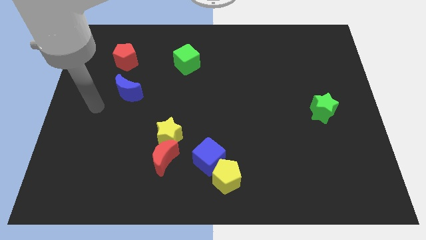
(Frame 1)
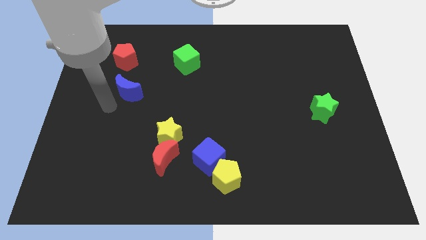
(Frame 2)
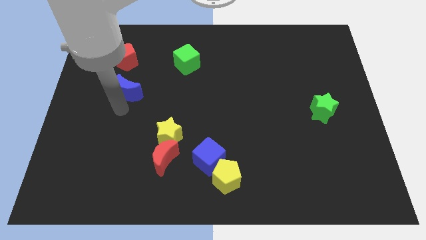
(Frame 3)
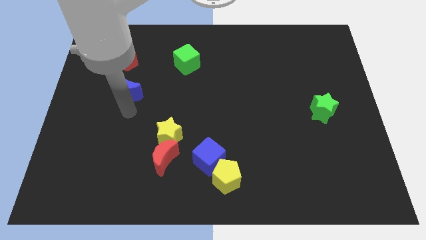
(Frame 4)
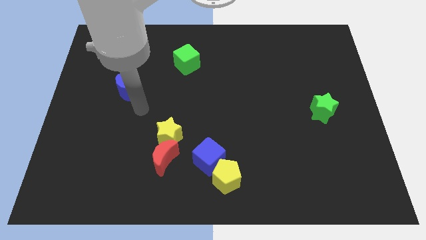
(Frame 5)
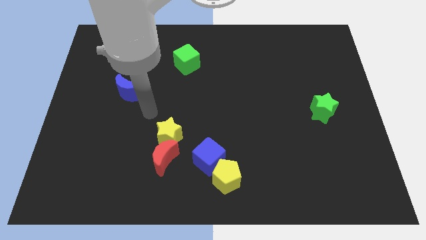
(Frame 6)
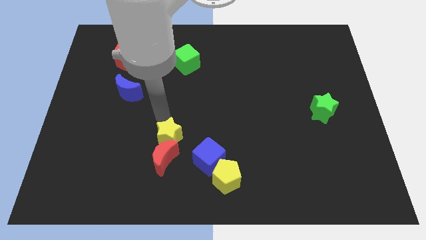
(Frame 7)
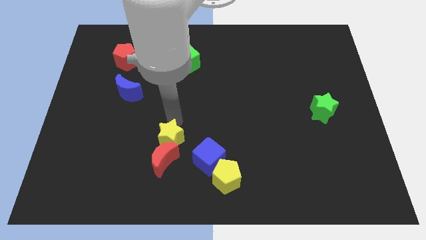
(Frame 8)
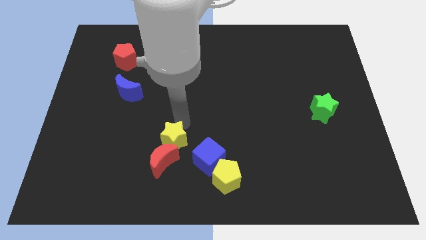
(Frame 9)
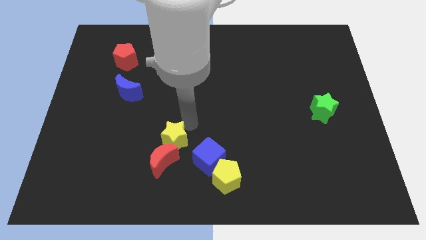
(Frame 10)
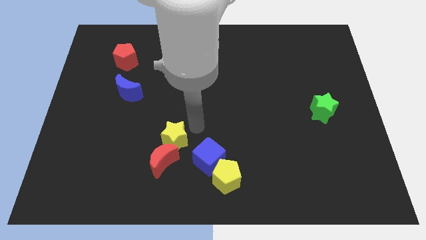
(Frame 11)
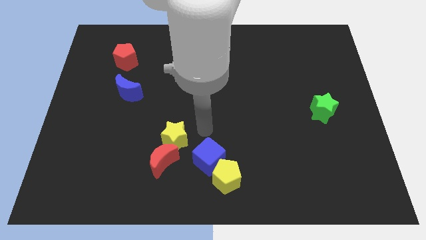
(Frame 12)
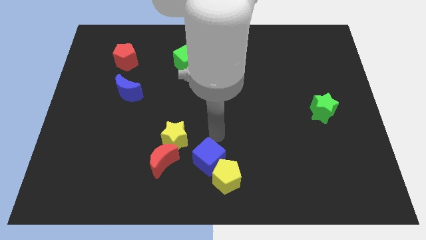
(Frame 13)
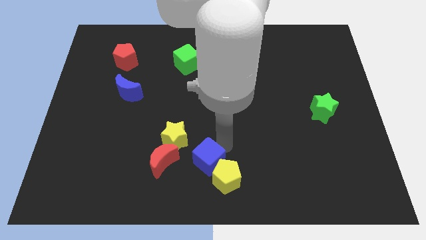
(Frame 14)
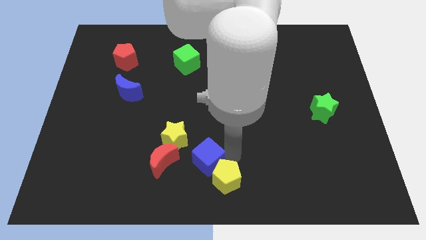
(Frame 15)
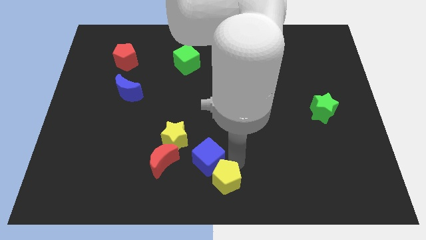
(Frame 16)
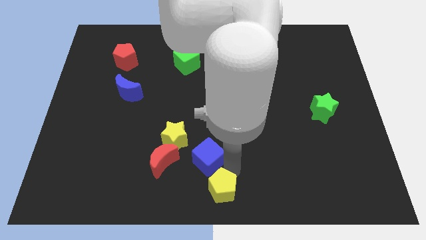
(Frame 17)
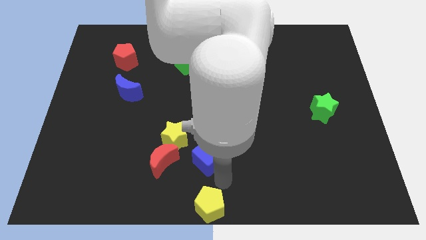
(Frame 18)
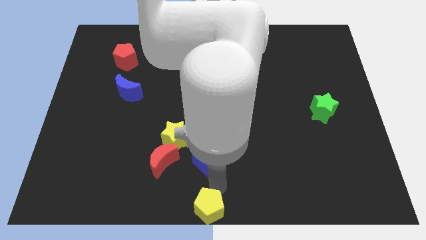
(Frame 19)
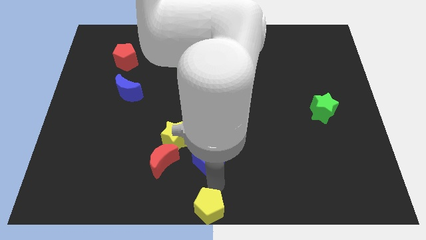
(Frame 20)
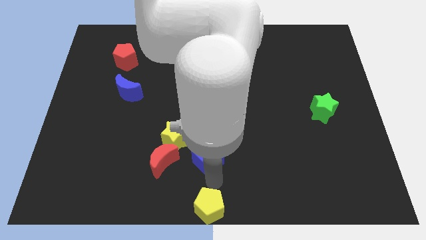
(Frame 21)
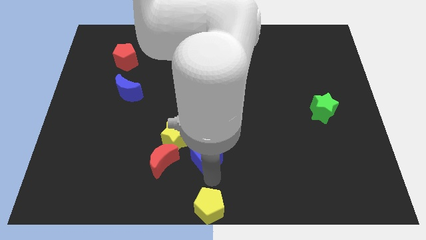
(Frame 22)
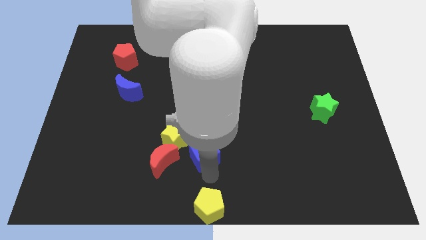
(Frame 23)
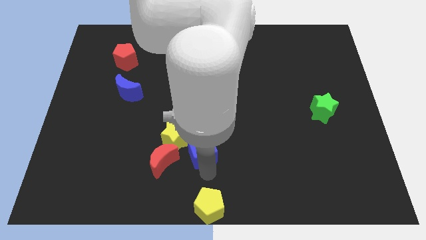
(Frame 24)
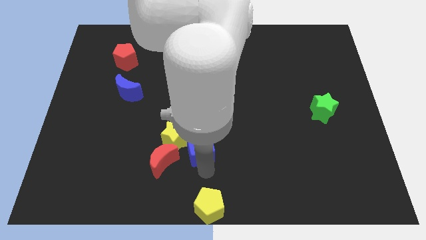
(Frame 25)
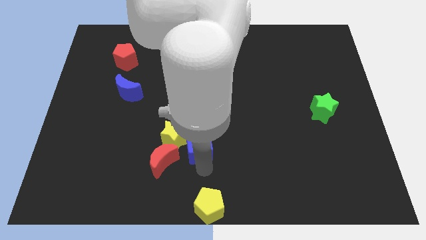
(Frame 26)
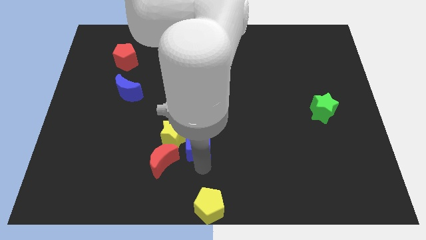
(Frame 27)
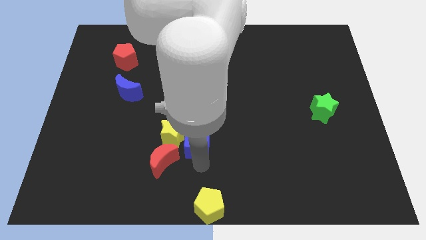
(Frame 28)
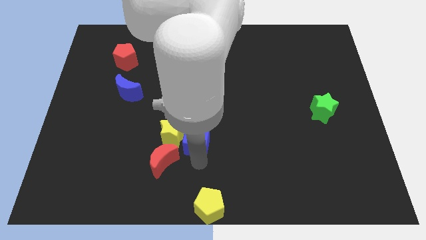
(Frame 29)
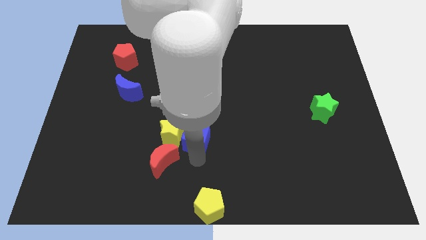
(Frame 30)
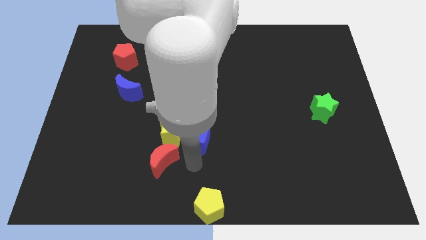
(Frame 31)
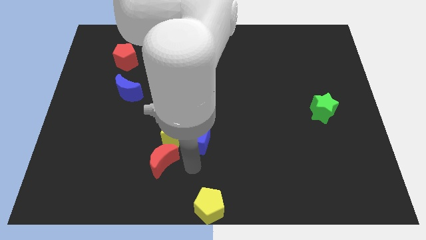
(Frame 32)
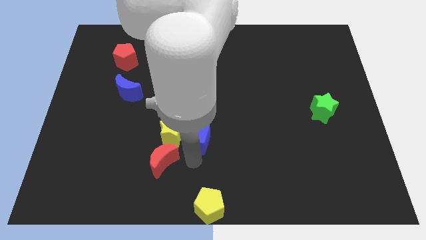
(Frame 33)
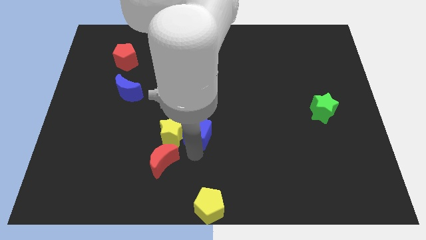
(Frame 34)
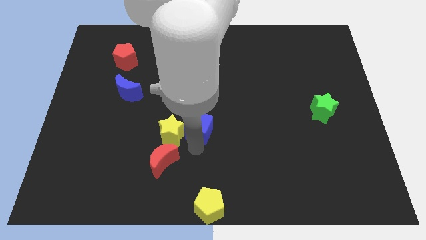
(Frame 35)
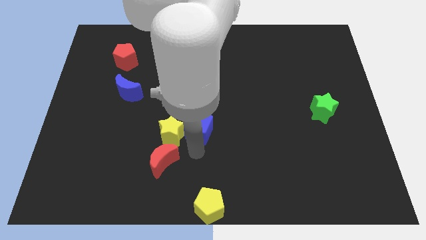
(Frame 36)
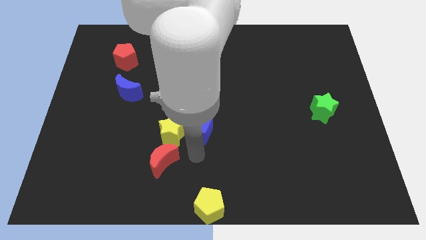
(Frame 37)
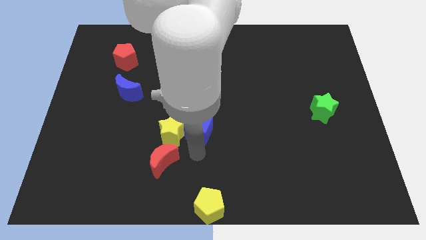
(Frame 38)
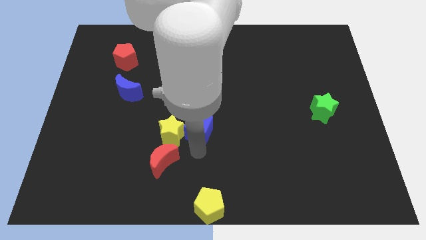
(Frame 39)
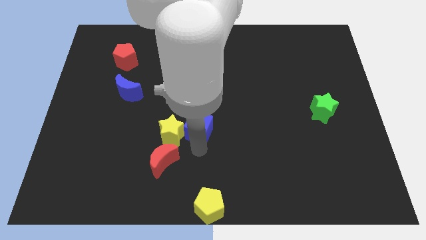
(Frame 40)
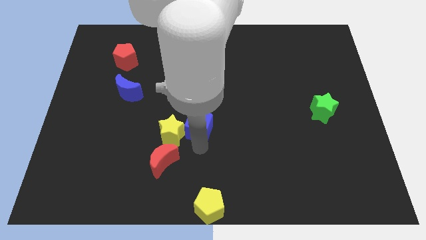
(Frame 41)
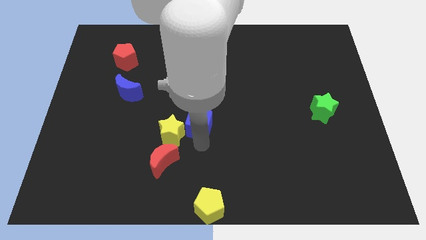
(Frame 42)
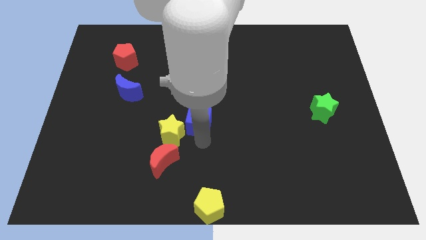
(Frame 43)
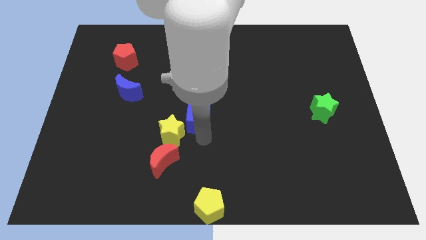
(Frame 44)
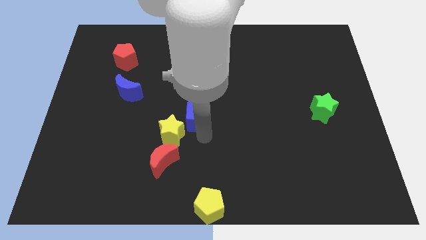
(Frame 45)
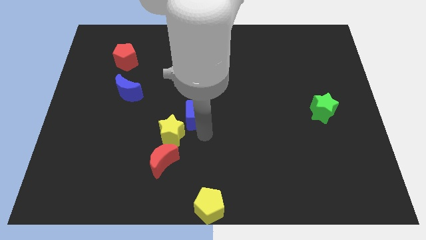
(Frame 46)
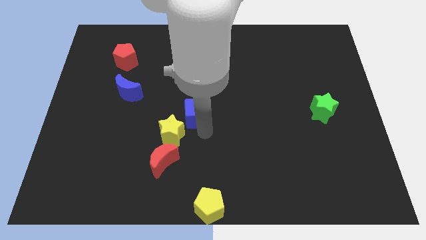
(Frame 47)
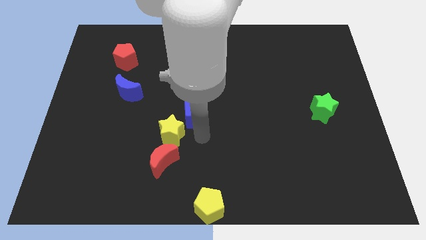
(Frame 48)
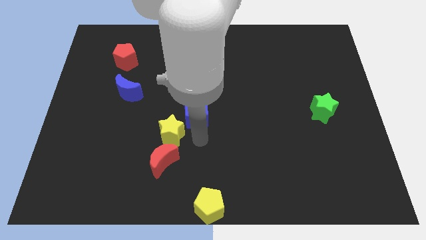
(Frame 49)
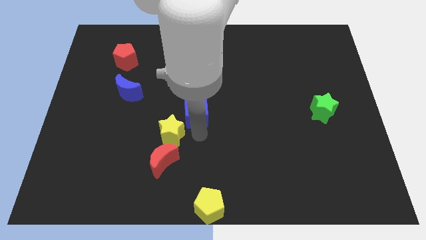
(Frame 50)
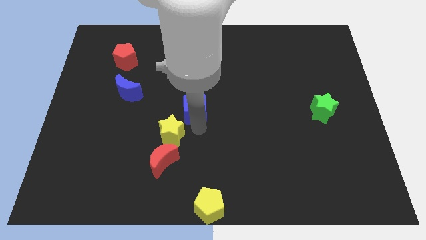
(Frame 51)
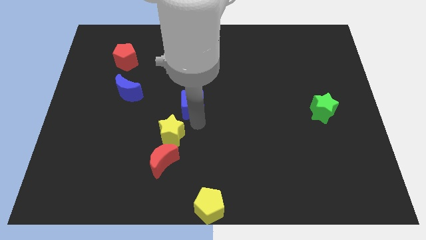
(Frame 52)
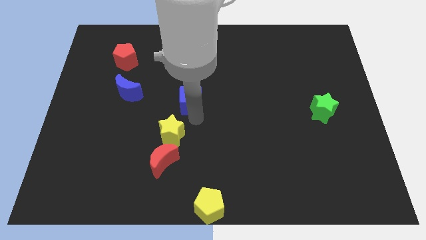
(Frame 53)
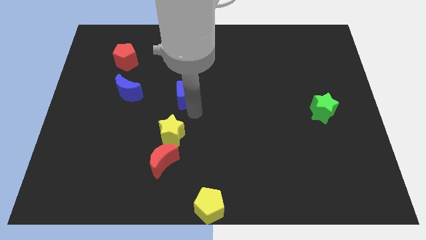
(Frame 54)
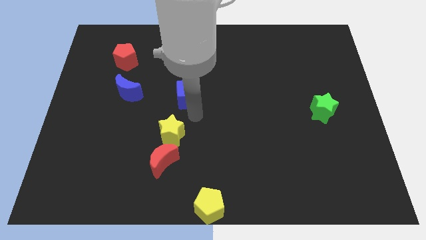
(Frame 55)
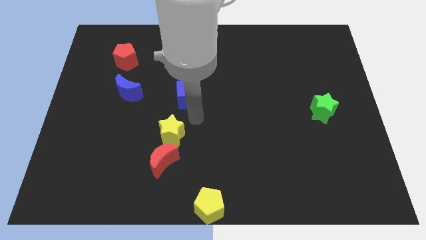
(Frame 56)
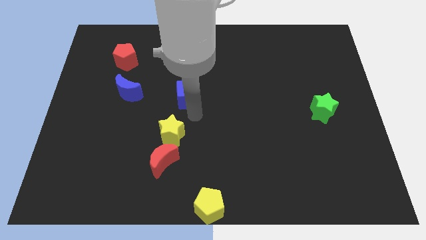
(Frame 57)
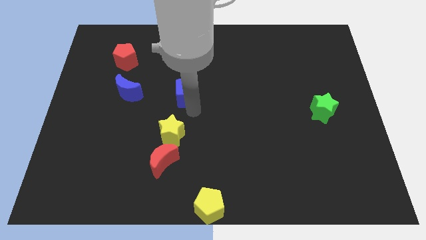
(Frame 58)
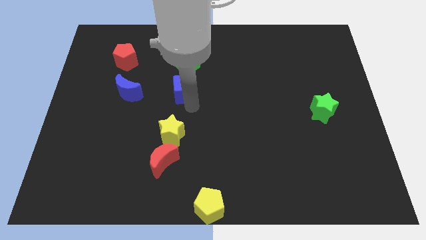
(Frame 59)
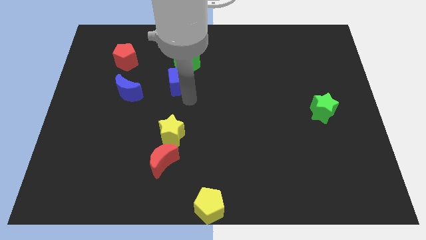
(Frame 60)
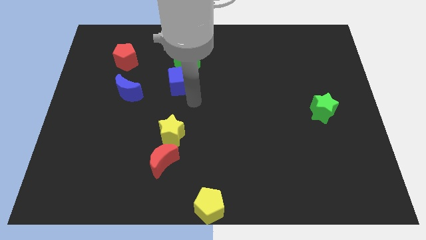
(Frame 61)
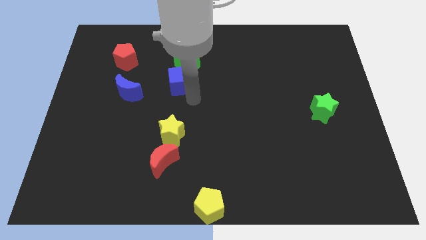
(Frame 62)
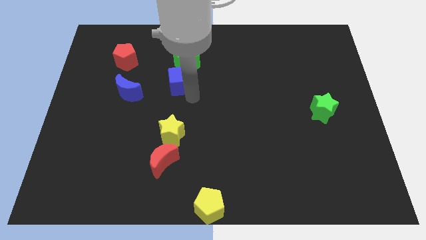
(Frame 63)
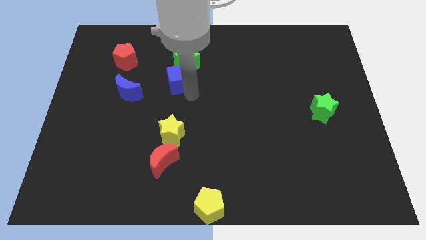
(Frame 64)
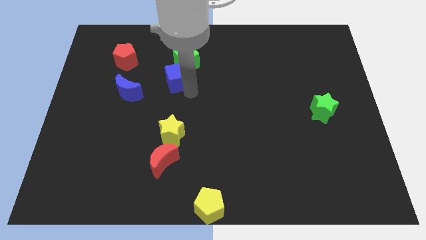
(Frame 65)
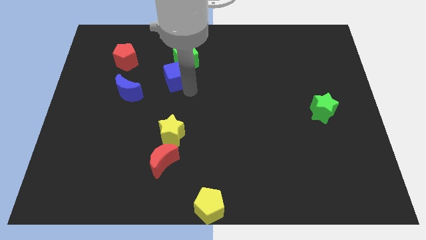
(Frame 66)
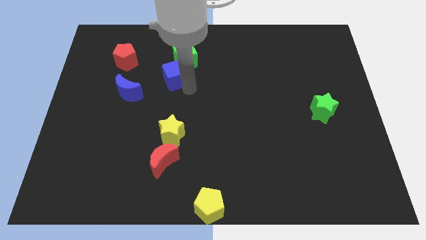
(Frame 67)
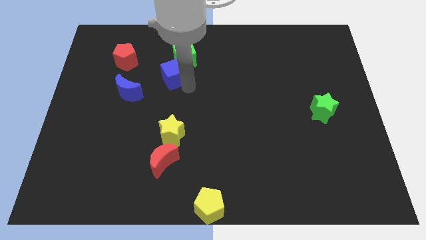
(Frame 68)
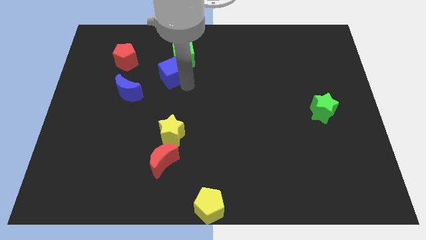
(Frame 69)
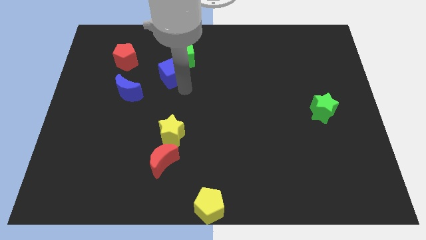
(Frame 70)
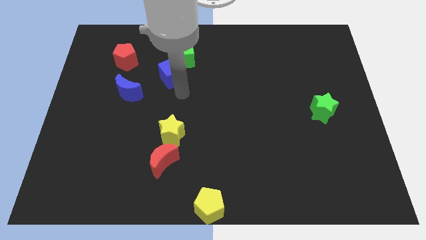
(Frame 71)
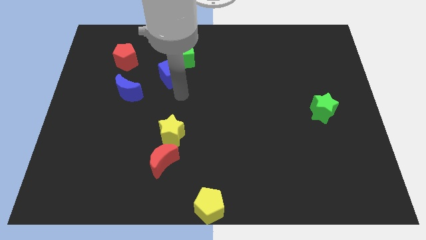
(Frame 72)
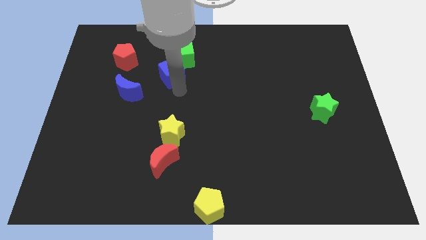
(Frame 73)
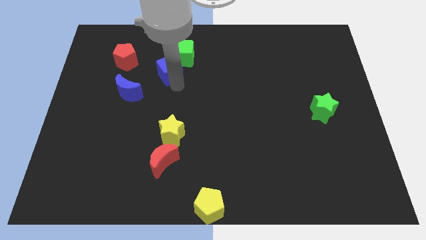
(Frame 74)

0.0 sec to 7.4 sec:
move the blue cube just right of the red pentagon
